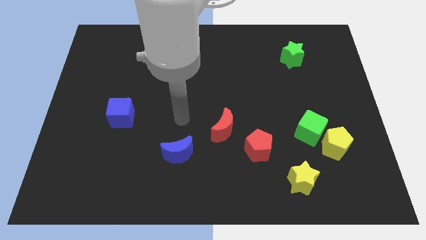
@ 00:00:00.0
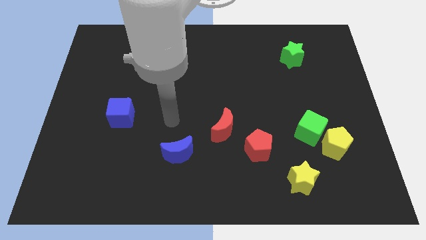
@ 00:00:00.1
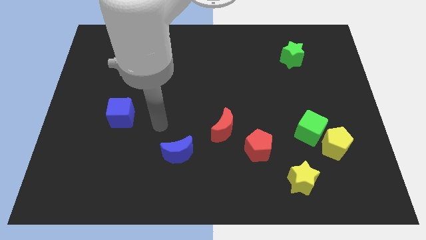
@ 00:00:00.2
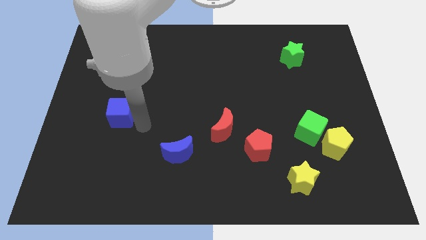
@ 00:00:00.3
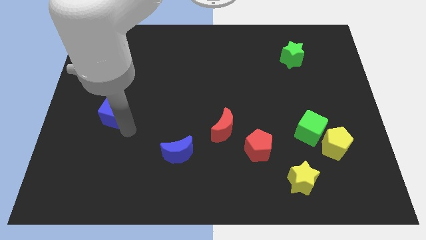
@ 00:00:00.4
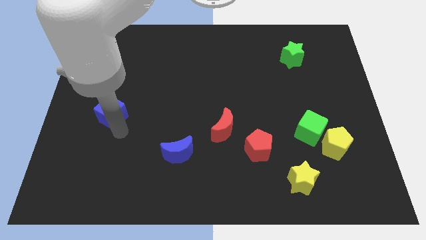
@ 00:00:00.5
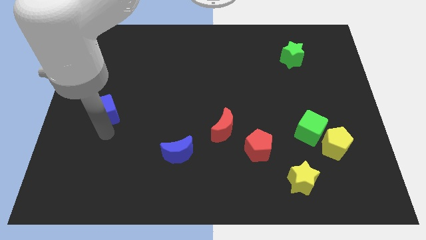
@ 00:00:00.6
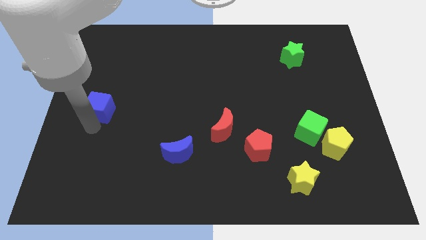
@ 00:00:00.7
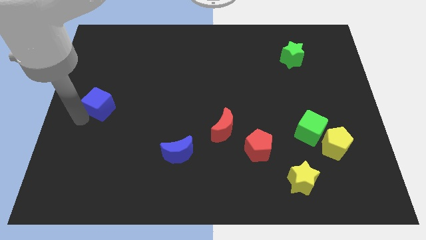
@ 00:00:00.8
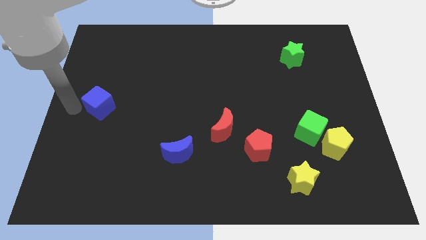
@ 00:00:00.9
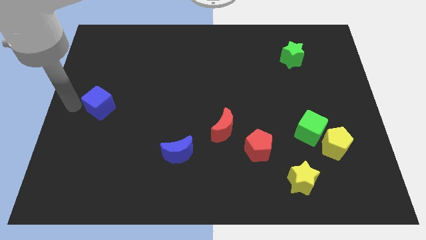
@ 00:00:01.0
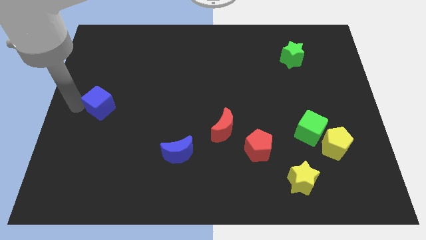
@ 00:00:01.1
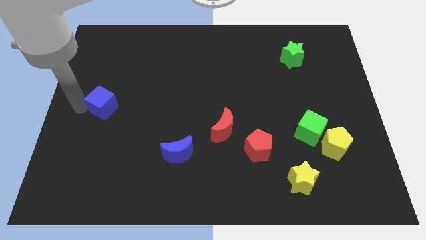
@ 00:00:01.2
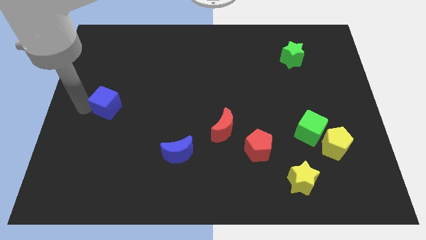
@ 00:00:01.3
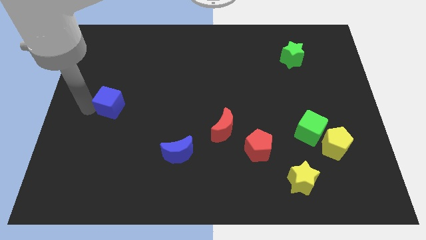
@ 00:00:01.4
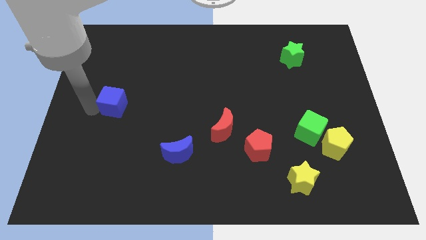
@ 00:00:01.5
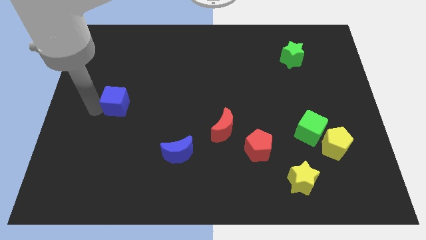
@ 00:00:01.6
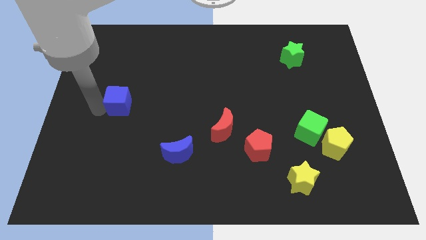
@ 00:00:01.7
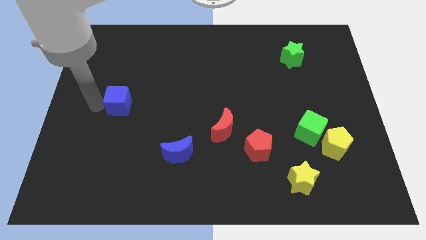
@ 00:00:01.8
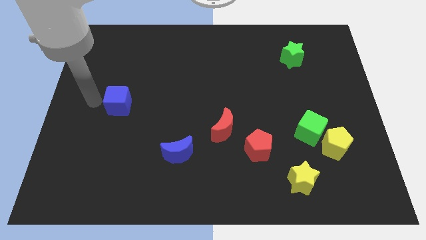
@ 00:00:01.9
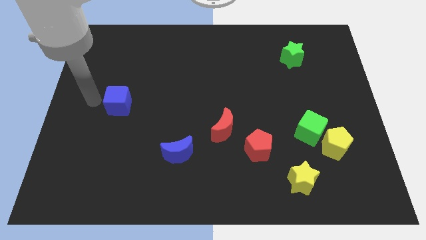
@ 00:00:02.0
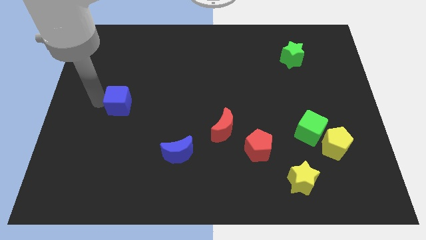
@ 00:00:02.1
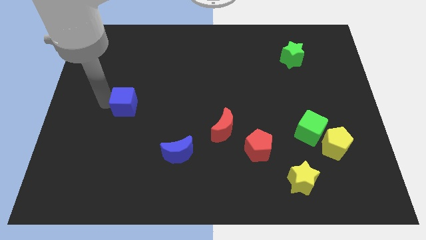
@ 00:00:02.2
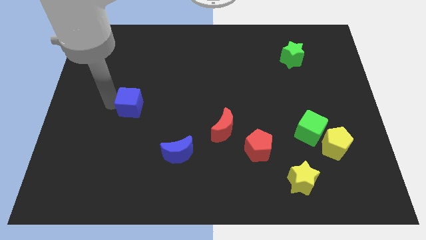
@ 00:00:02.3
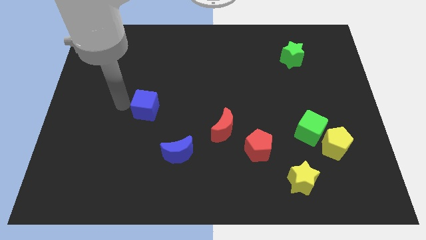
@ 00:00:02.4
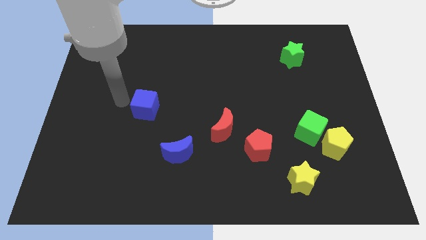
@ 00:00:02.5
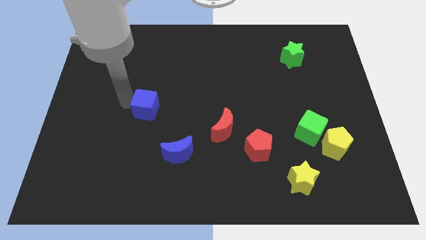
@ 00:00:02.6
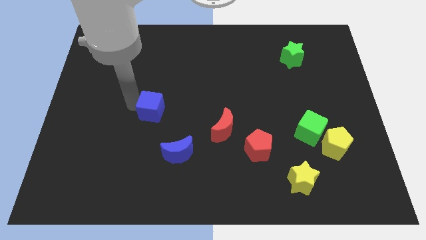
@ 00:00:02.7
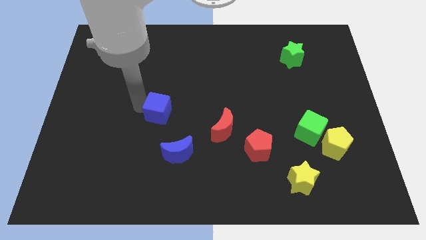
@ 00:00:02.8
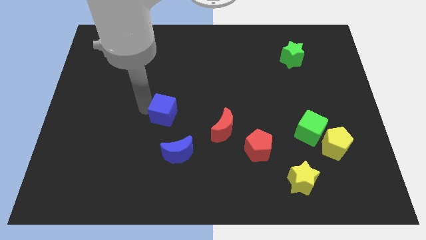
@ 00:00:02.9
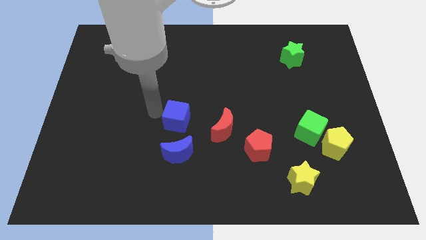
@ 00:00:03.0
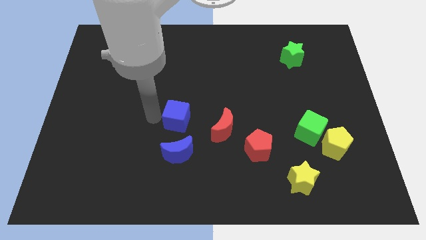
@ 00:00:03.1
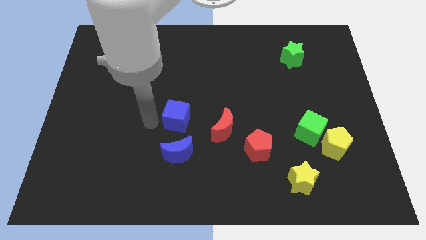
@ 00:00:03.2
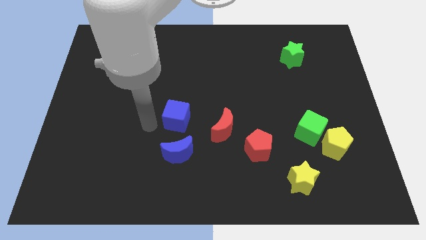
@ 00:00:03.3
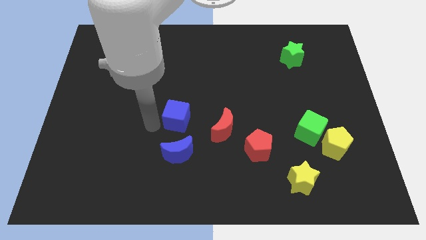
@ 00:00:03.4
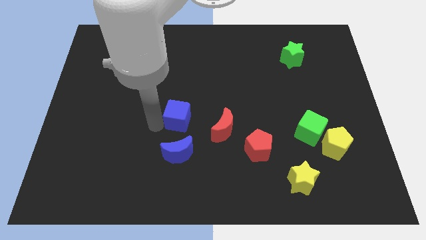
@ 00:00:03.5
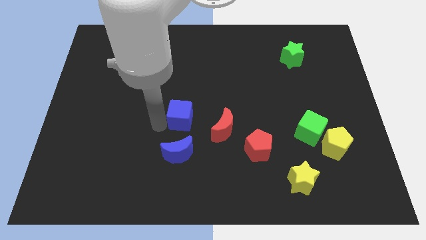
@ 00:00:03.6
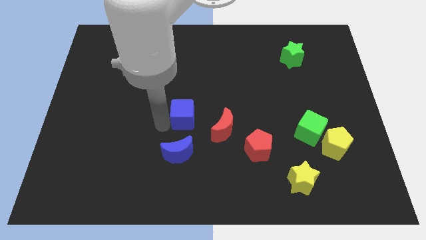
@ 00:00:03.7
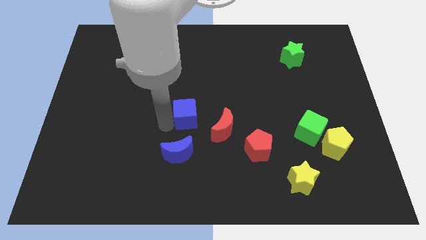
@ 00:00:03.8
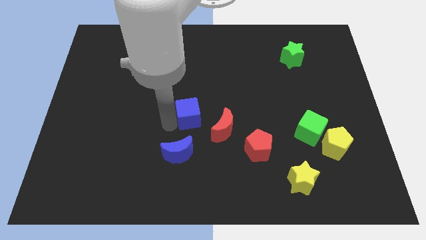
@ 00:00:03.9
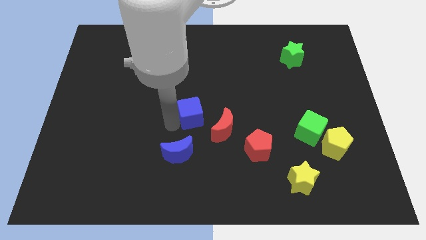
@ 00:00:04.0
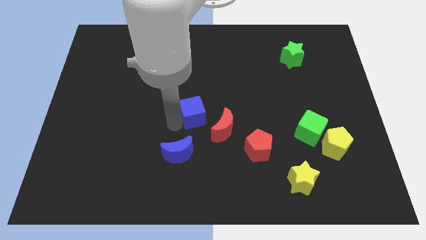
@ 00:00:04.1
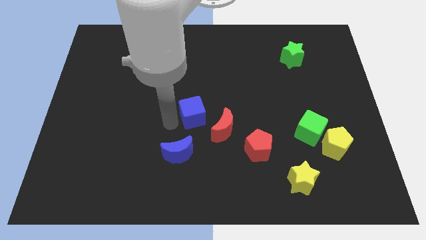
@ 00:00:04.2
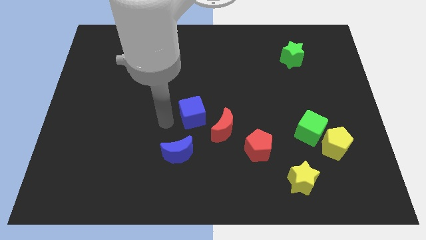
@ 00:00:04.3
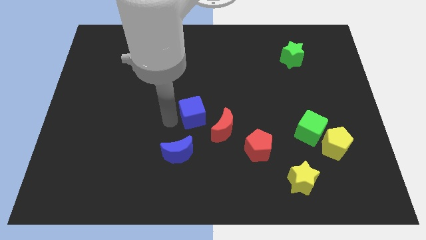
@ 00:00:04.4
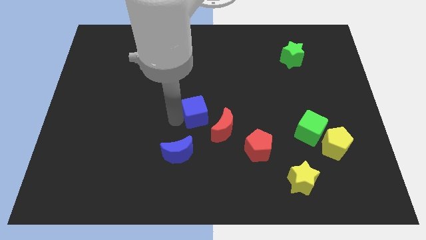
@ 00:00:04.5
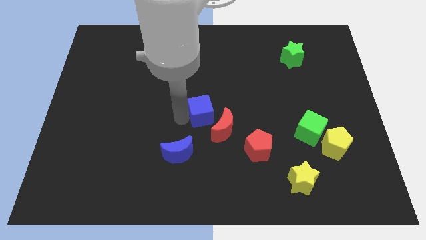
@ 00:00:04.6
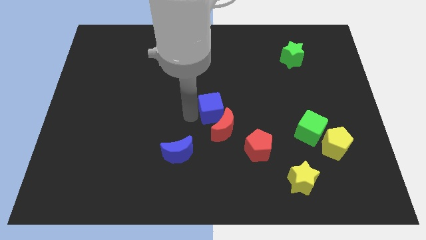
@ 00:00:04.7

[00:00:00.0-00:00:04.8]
move the blue cube right

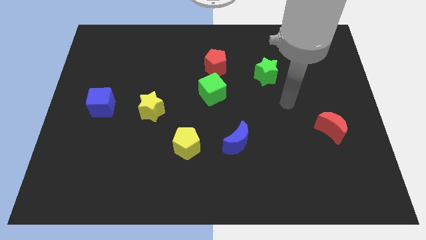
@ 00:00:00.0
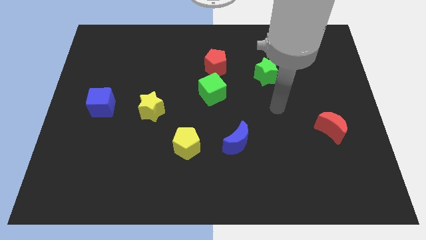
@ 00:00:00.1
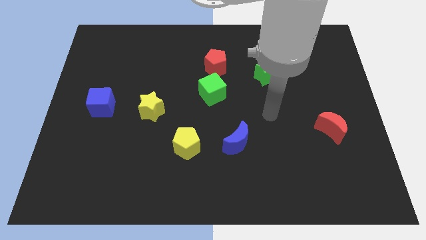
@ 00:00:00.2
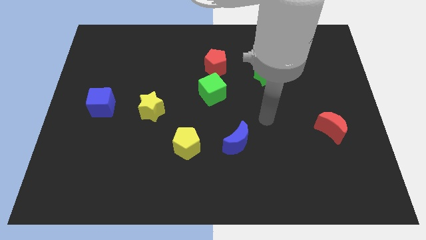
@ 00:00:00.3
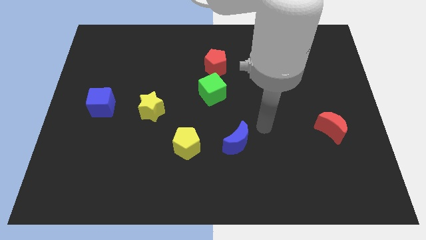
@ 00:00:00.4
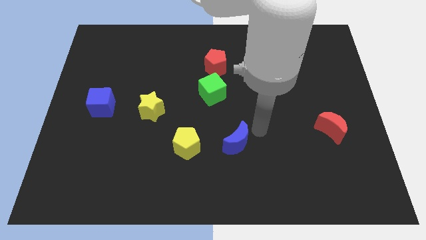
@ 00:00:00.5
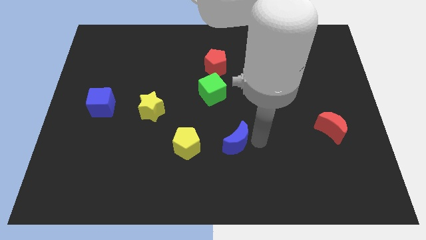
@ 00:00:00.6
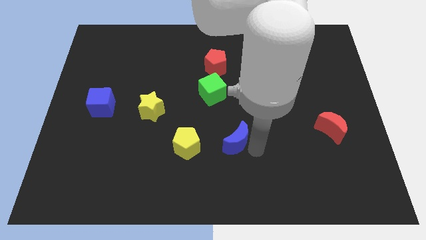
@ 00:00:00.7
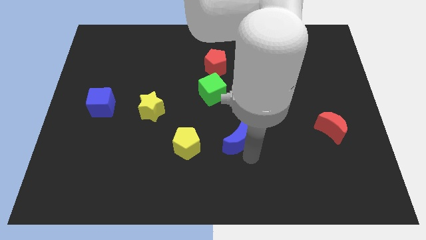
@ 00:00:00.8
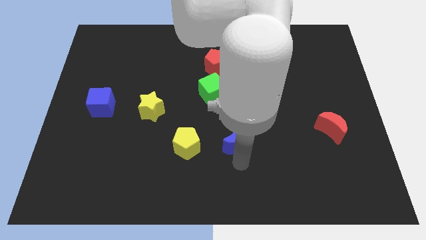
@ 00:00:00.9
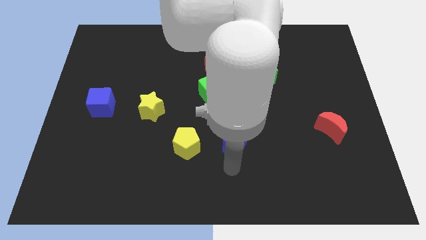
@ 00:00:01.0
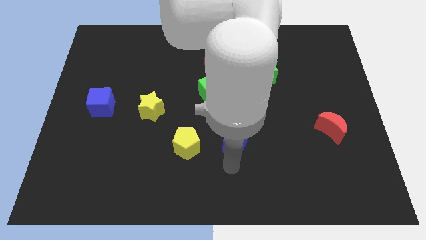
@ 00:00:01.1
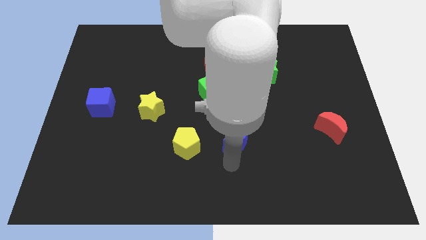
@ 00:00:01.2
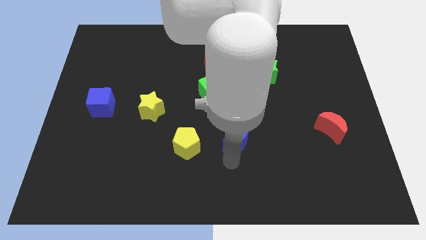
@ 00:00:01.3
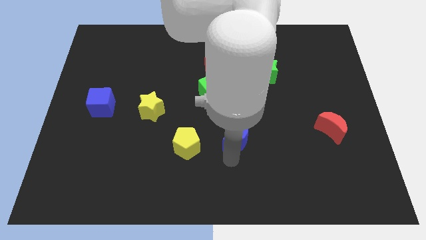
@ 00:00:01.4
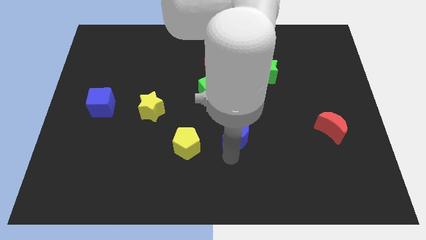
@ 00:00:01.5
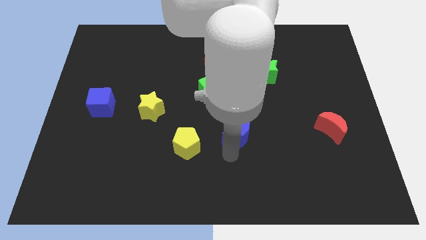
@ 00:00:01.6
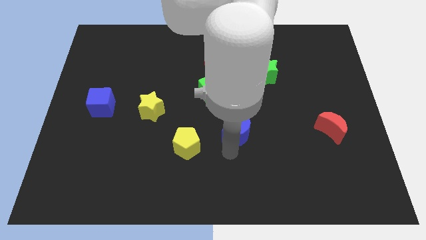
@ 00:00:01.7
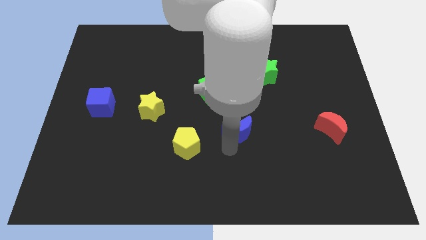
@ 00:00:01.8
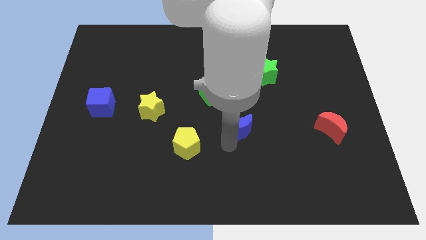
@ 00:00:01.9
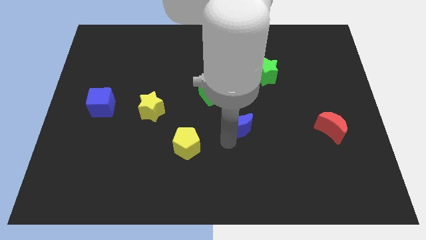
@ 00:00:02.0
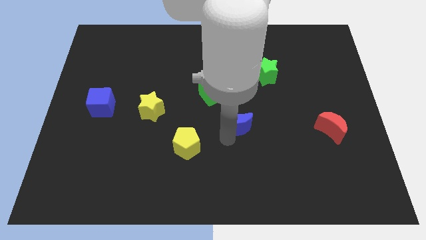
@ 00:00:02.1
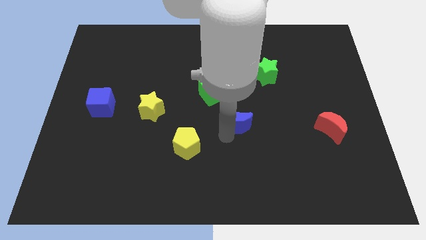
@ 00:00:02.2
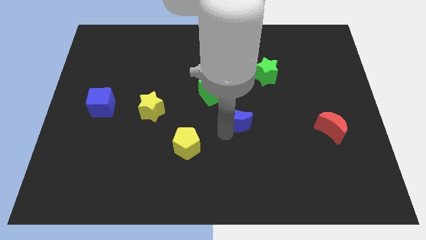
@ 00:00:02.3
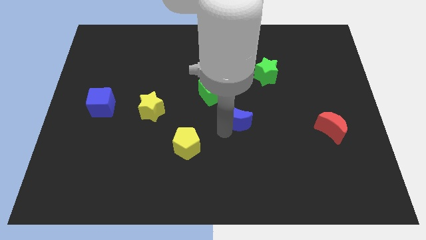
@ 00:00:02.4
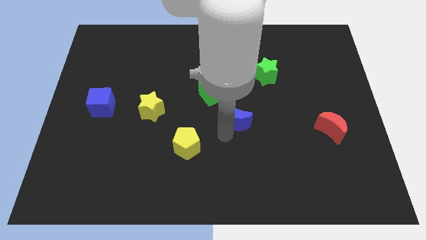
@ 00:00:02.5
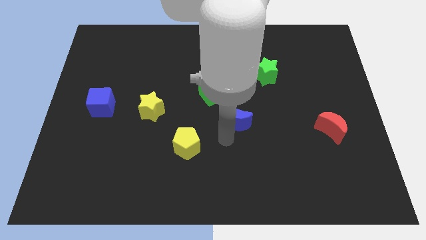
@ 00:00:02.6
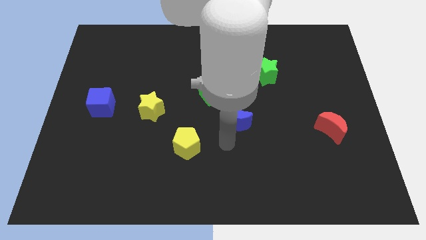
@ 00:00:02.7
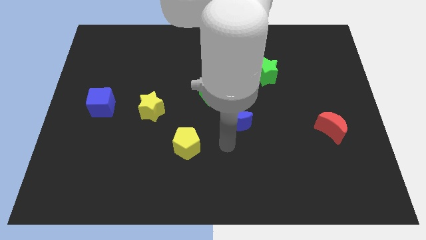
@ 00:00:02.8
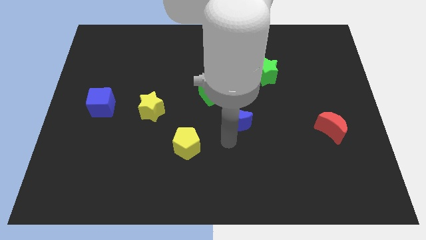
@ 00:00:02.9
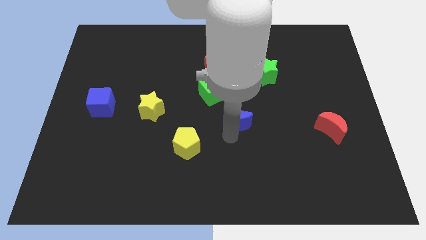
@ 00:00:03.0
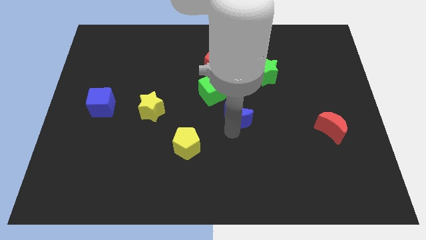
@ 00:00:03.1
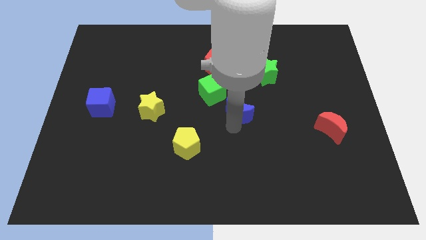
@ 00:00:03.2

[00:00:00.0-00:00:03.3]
slide the blue moon upwards a little bit
